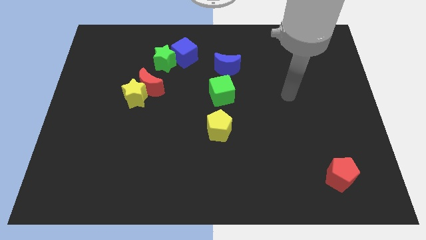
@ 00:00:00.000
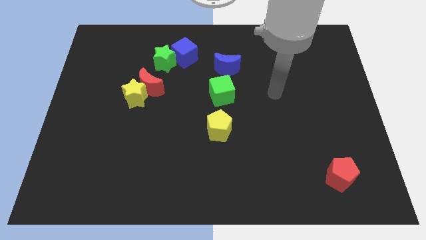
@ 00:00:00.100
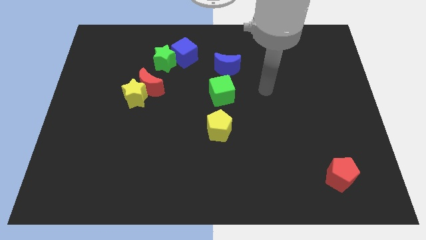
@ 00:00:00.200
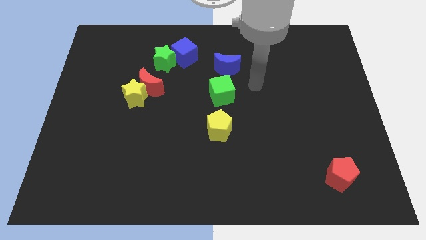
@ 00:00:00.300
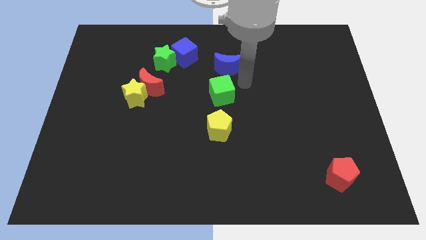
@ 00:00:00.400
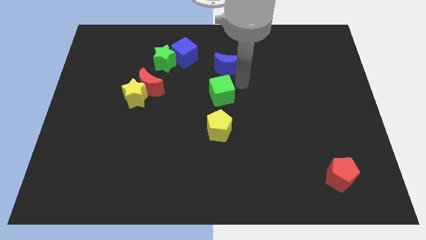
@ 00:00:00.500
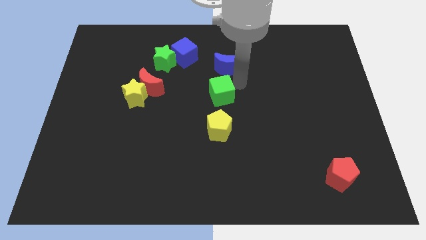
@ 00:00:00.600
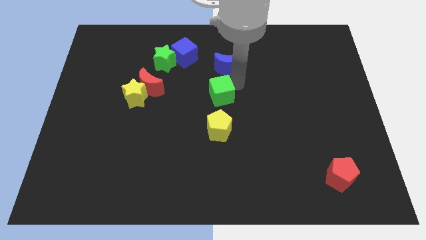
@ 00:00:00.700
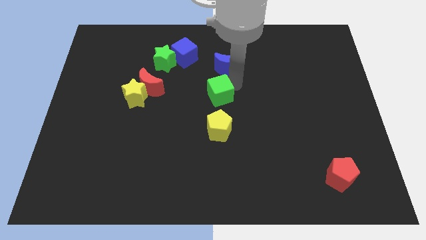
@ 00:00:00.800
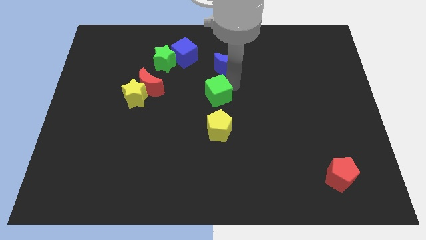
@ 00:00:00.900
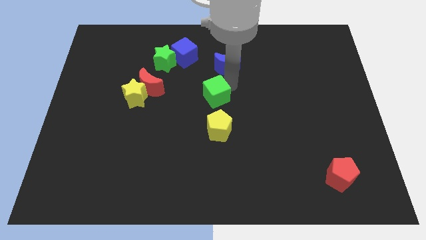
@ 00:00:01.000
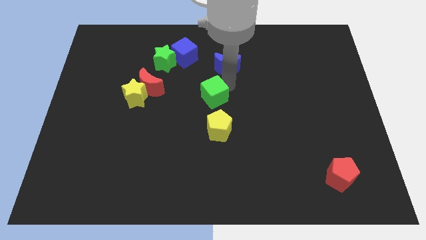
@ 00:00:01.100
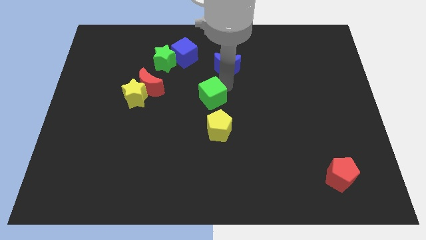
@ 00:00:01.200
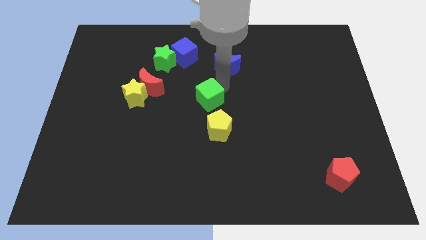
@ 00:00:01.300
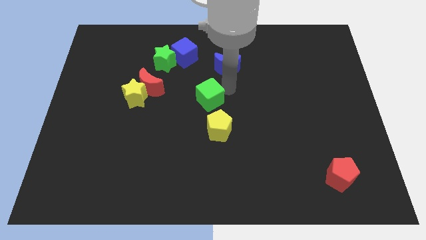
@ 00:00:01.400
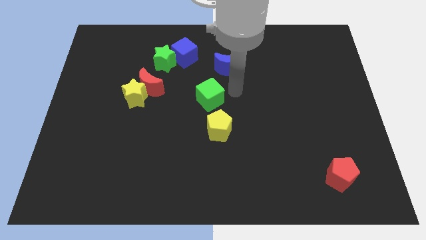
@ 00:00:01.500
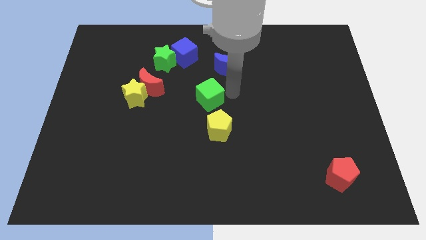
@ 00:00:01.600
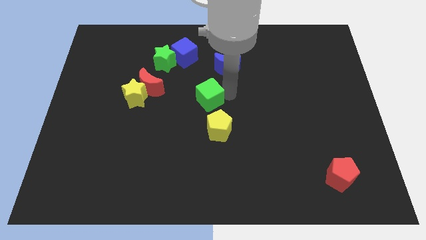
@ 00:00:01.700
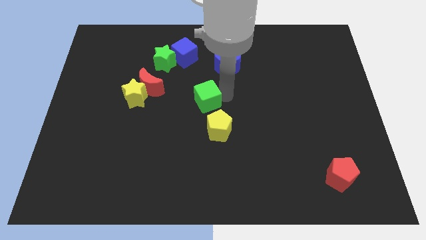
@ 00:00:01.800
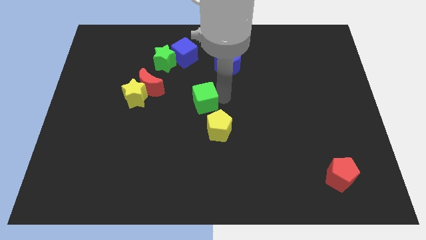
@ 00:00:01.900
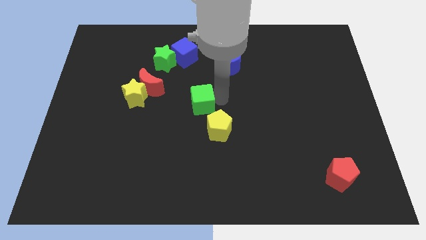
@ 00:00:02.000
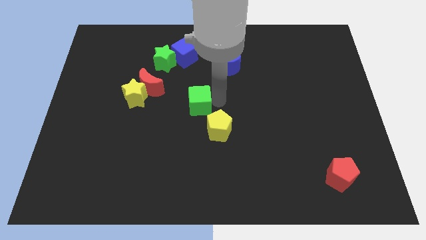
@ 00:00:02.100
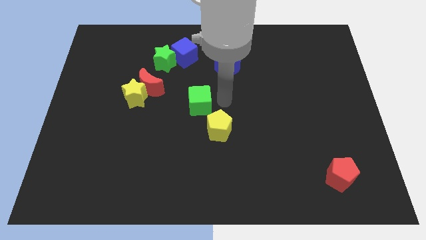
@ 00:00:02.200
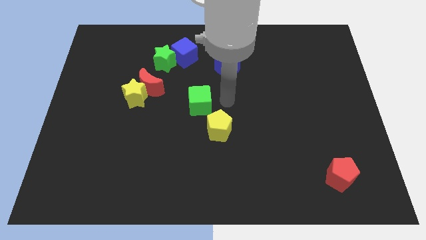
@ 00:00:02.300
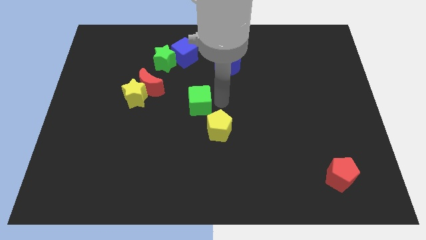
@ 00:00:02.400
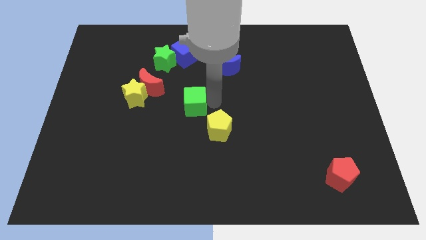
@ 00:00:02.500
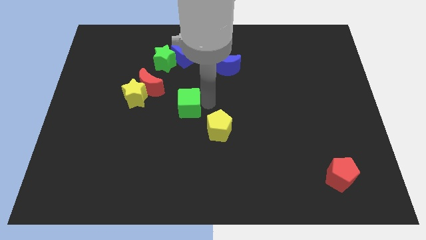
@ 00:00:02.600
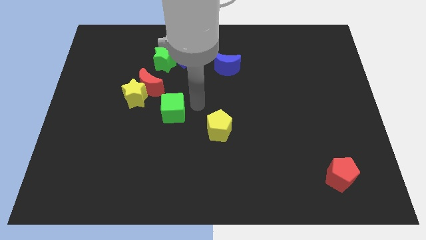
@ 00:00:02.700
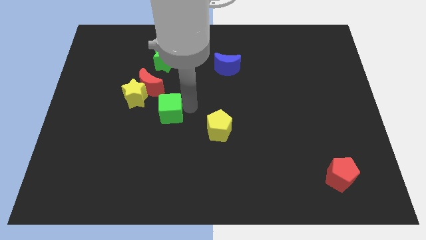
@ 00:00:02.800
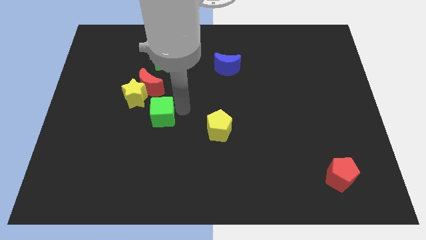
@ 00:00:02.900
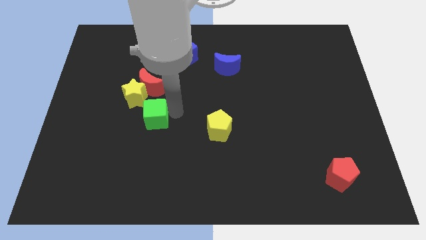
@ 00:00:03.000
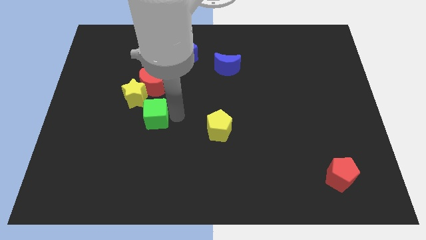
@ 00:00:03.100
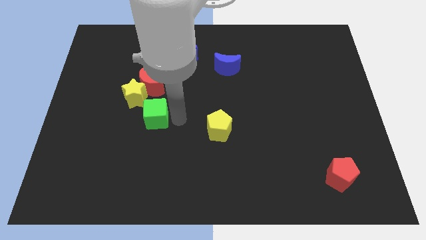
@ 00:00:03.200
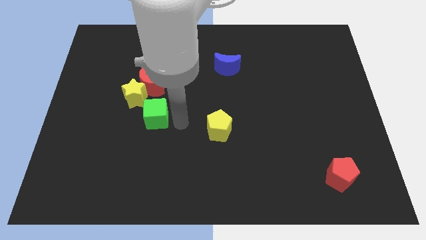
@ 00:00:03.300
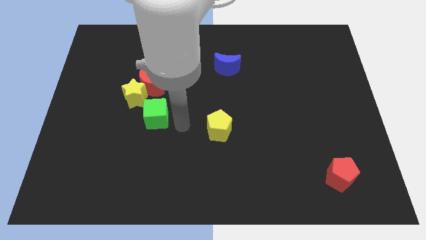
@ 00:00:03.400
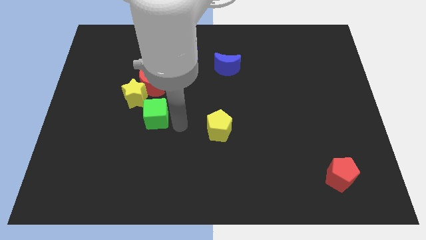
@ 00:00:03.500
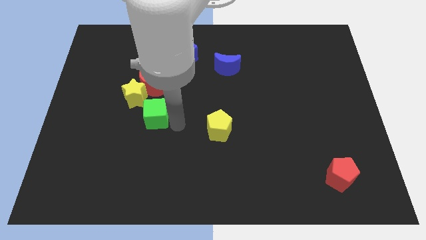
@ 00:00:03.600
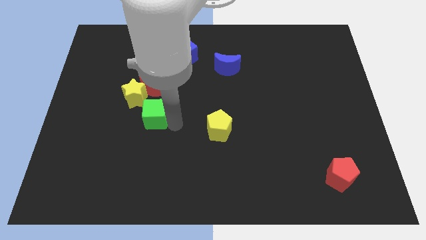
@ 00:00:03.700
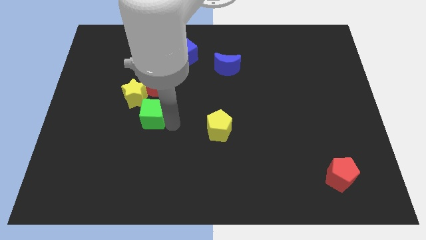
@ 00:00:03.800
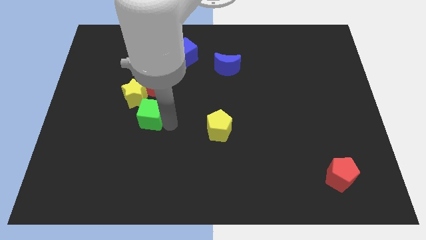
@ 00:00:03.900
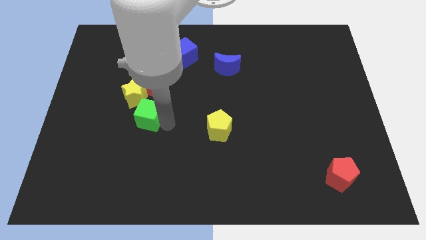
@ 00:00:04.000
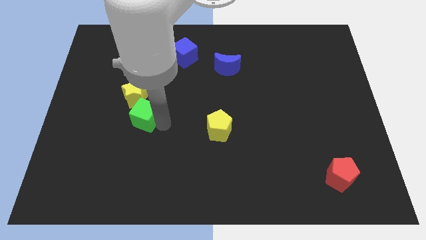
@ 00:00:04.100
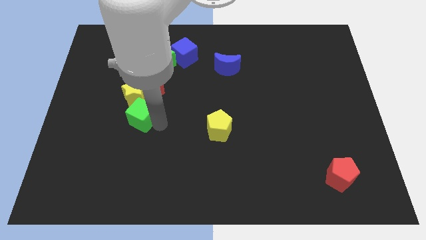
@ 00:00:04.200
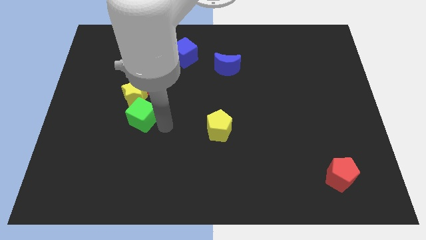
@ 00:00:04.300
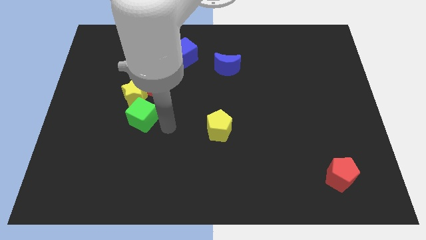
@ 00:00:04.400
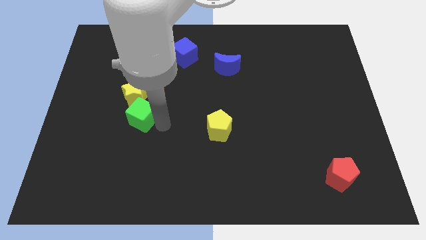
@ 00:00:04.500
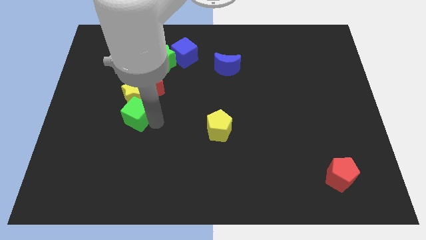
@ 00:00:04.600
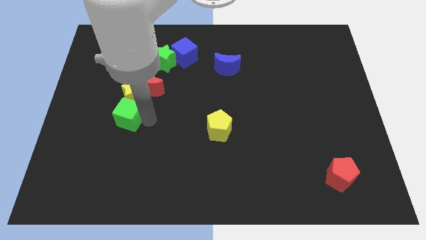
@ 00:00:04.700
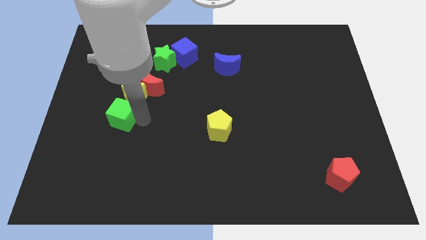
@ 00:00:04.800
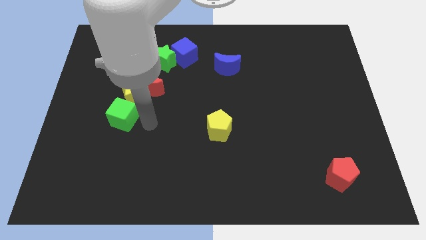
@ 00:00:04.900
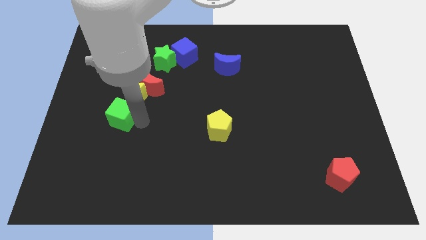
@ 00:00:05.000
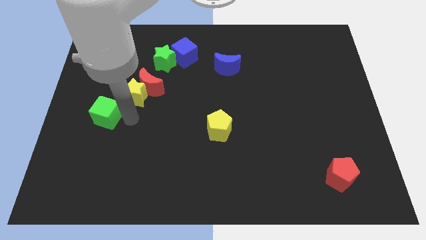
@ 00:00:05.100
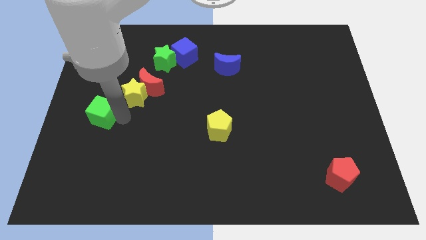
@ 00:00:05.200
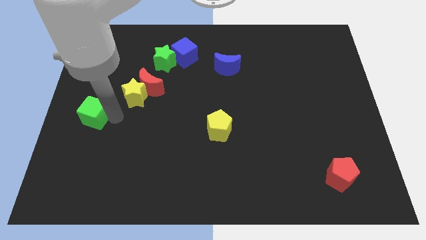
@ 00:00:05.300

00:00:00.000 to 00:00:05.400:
push the green cube to the left side of the board

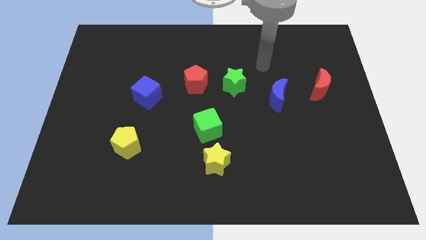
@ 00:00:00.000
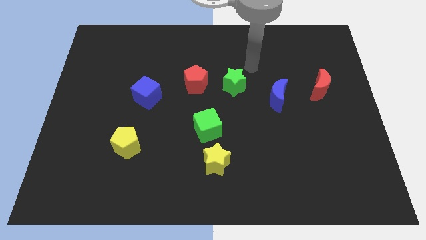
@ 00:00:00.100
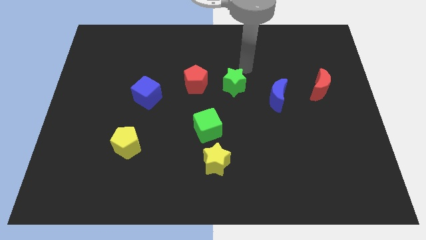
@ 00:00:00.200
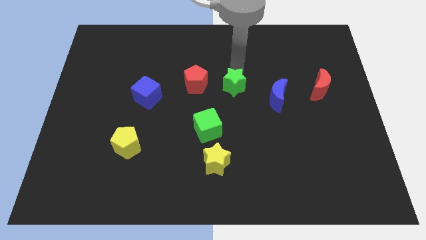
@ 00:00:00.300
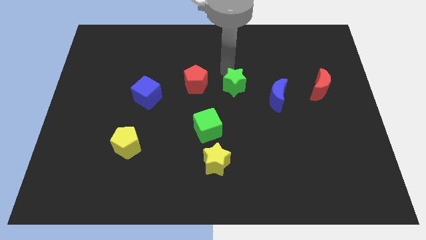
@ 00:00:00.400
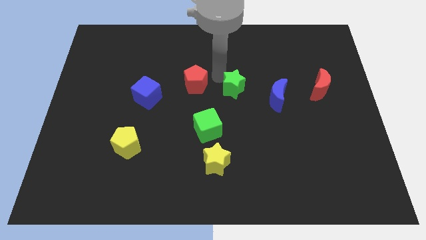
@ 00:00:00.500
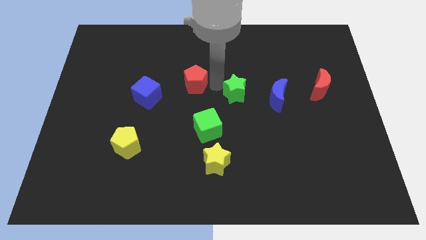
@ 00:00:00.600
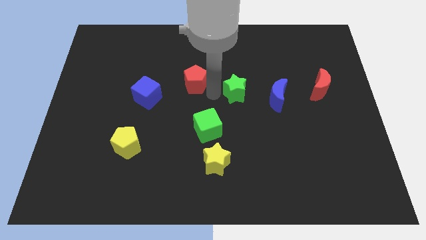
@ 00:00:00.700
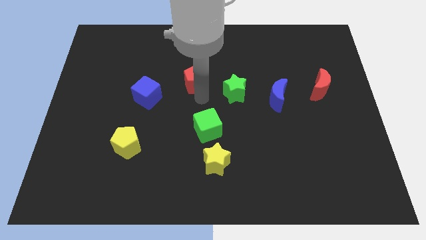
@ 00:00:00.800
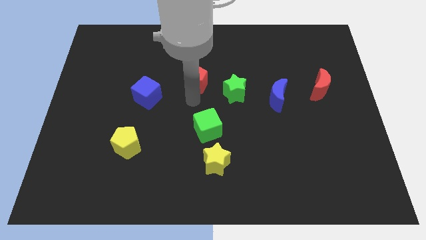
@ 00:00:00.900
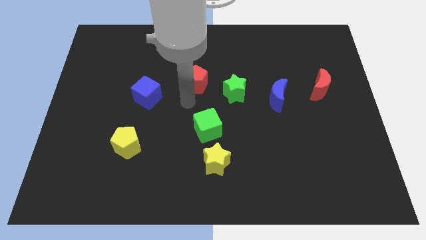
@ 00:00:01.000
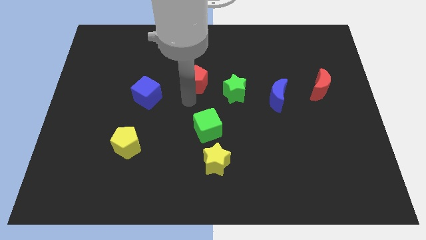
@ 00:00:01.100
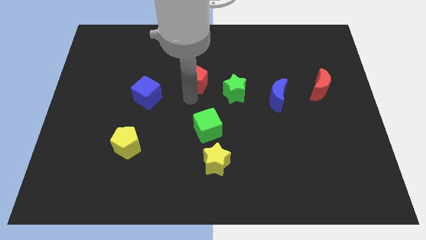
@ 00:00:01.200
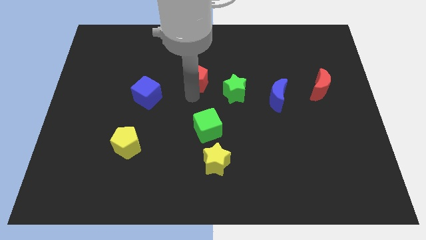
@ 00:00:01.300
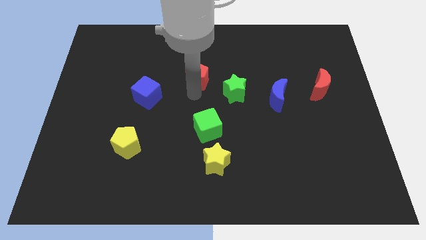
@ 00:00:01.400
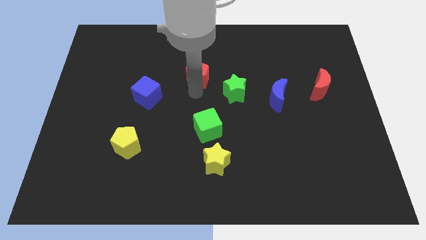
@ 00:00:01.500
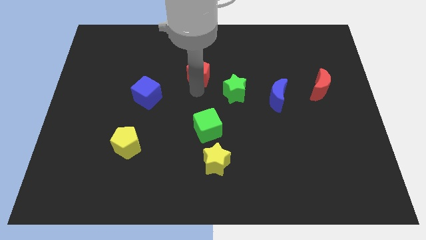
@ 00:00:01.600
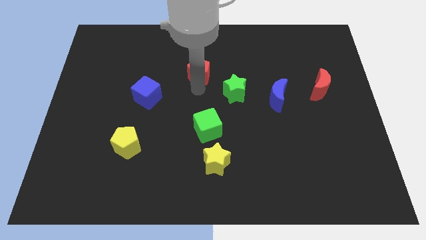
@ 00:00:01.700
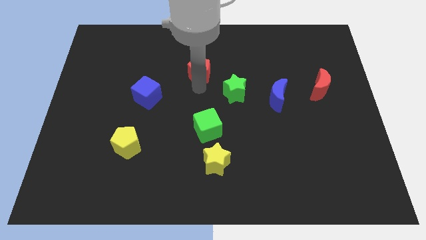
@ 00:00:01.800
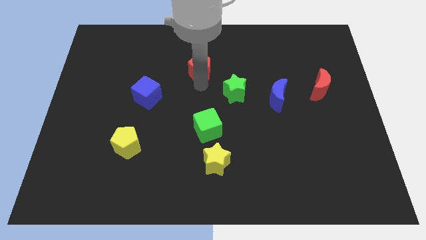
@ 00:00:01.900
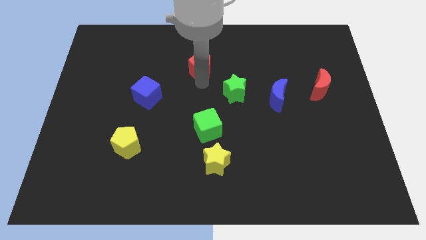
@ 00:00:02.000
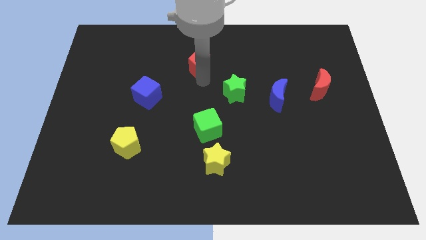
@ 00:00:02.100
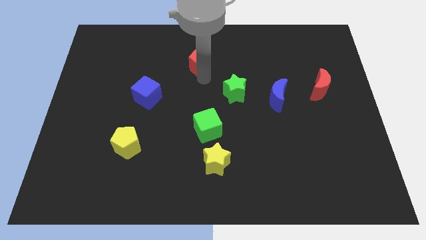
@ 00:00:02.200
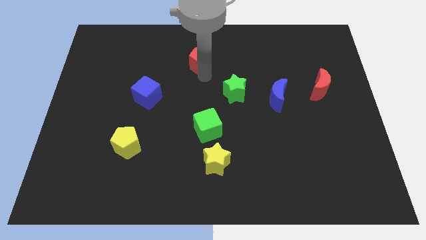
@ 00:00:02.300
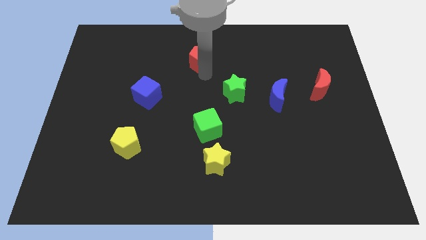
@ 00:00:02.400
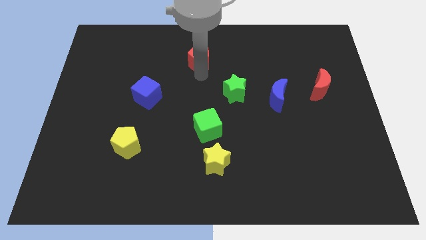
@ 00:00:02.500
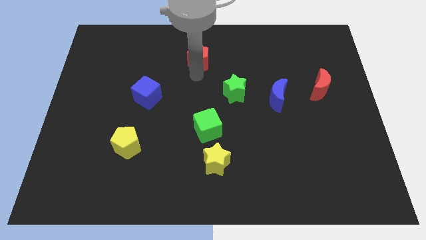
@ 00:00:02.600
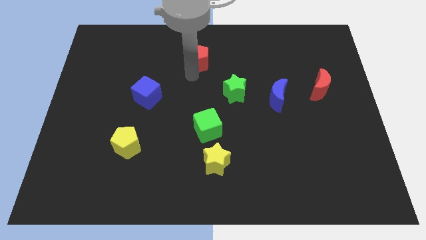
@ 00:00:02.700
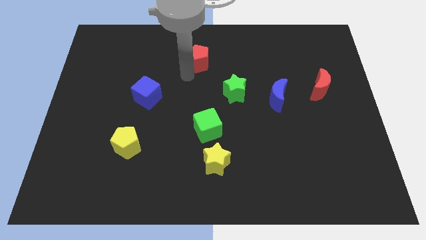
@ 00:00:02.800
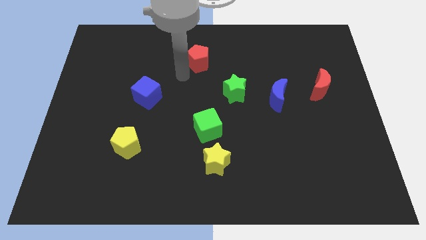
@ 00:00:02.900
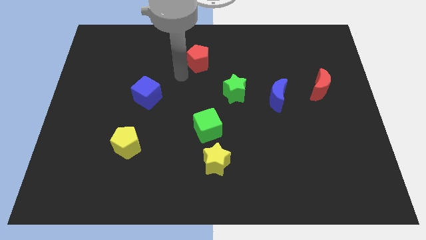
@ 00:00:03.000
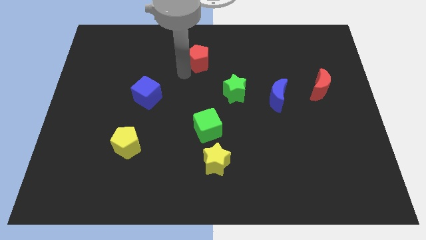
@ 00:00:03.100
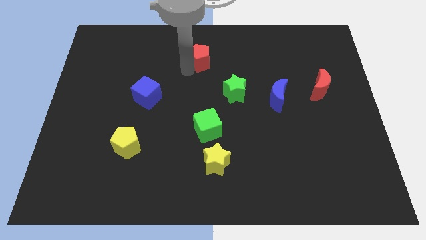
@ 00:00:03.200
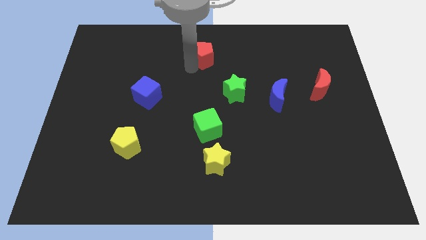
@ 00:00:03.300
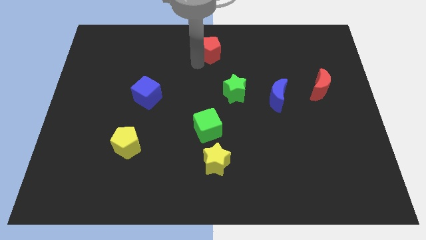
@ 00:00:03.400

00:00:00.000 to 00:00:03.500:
move the red pentagon to the towards your base
